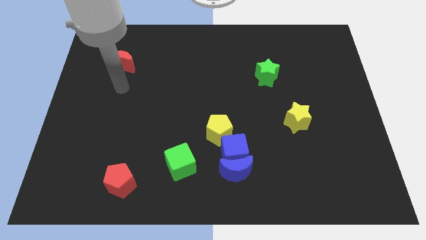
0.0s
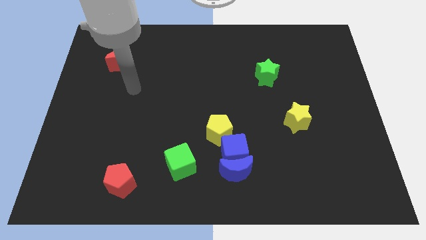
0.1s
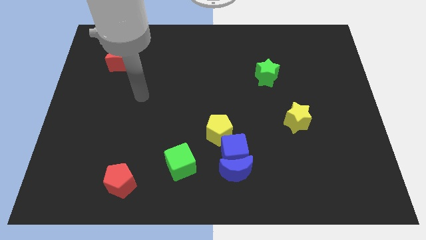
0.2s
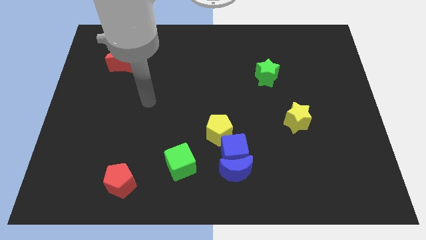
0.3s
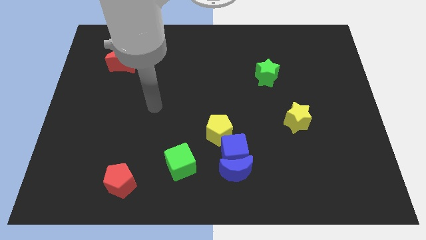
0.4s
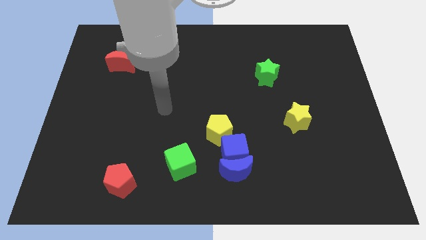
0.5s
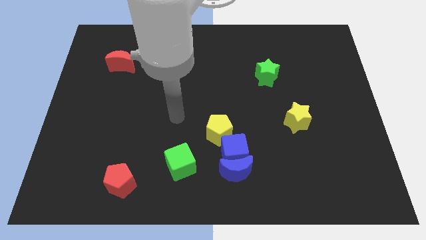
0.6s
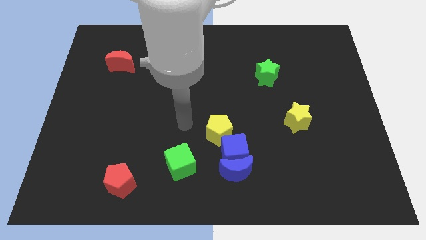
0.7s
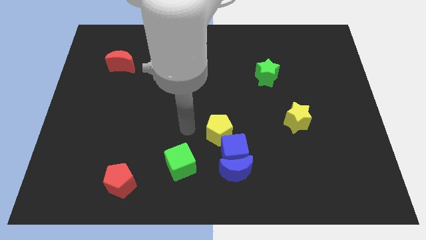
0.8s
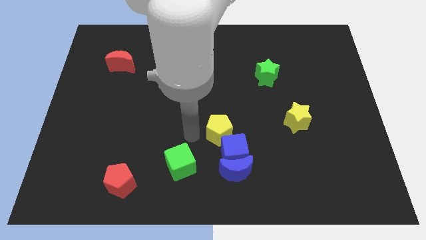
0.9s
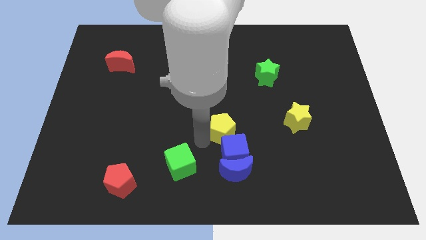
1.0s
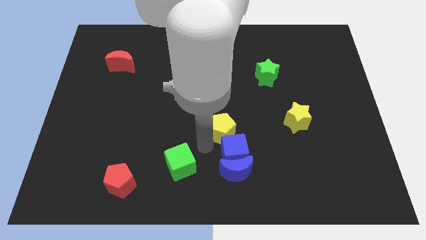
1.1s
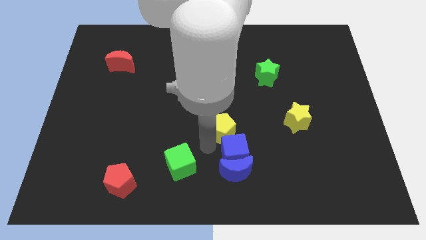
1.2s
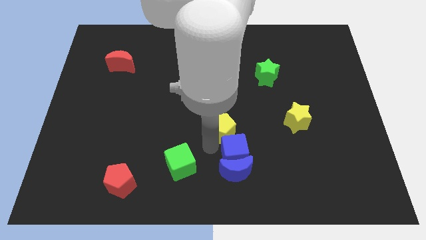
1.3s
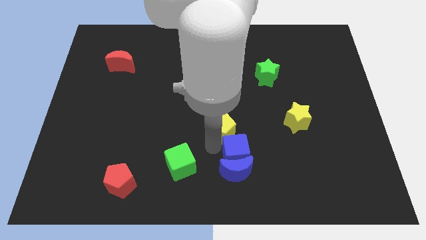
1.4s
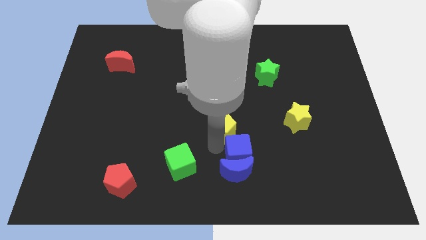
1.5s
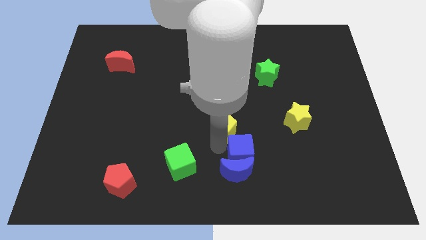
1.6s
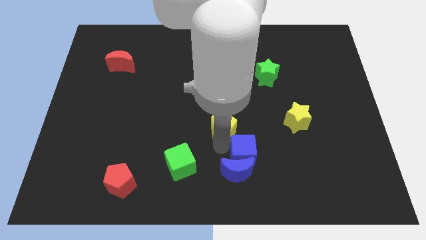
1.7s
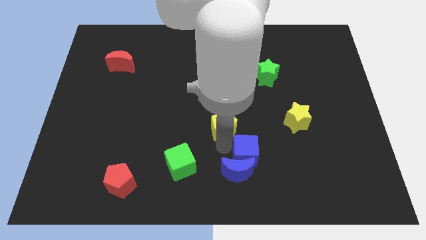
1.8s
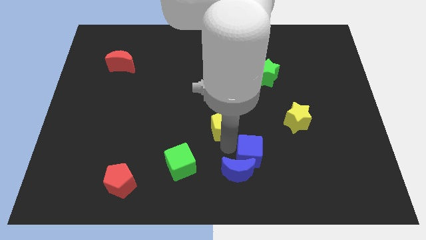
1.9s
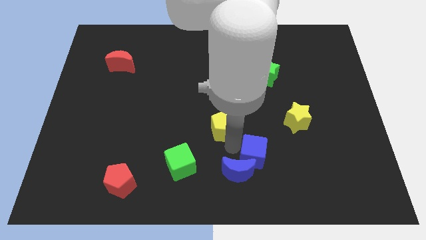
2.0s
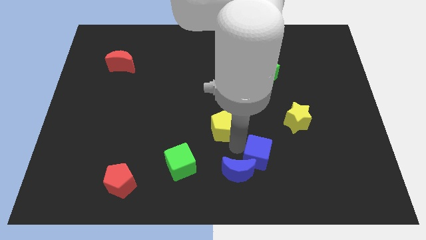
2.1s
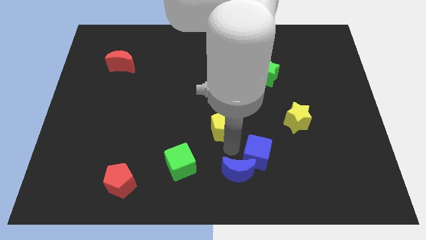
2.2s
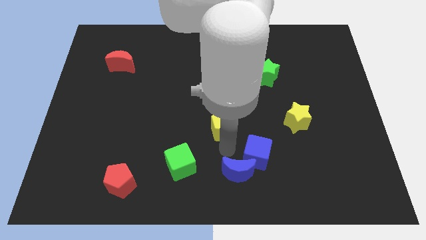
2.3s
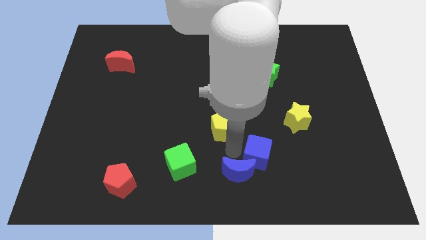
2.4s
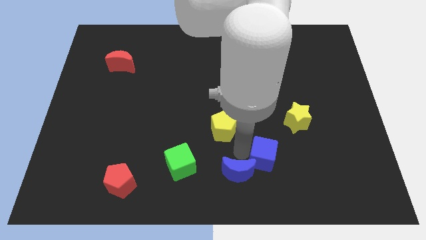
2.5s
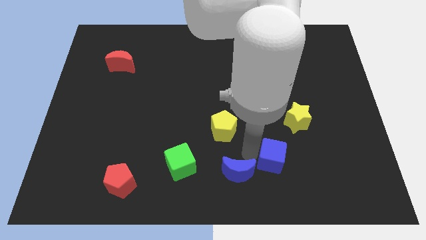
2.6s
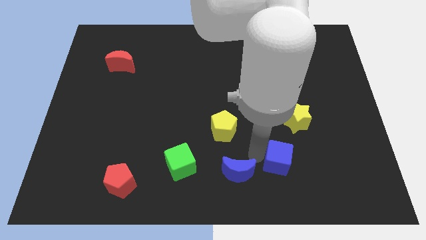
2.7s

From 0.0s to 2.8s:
separate the blue cube from the blue moon and yellow pentagon

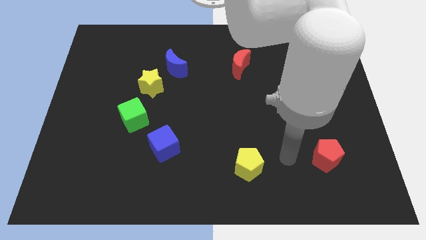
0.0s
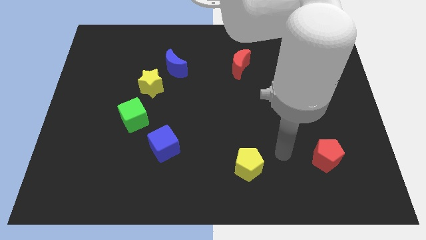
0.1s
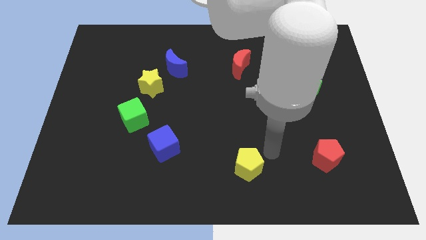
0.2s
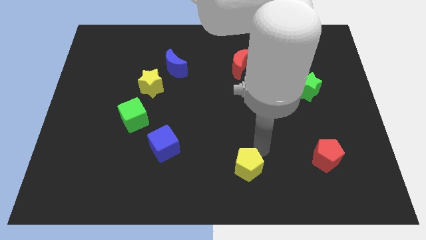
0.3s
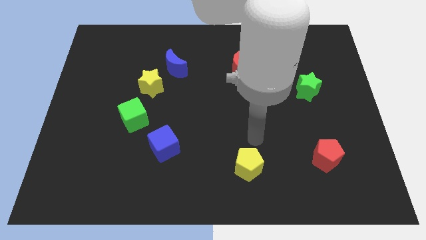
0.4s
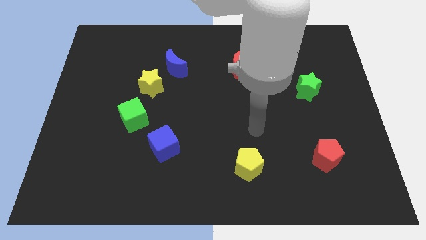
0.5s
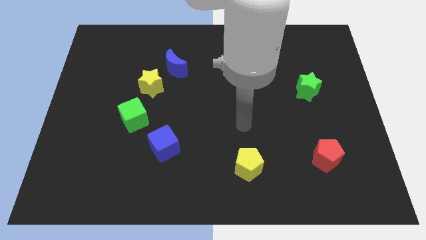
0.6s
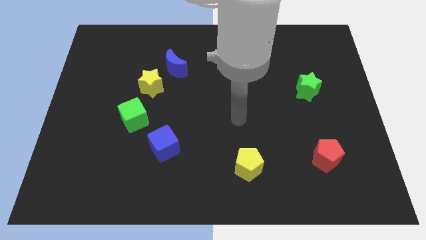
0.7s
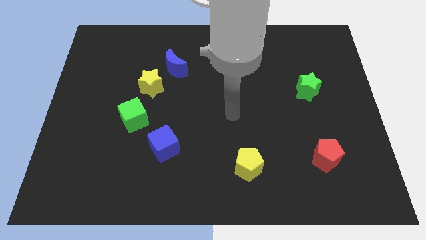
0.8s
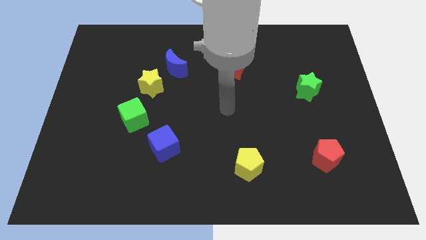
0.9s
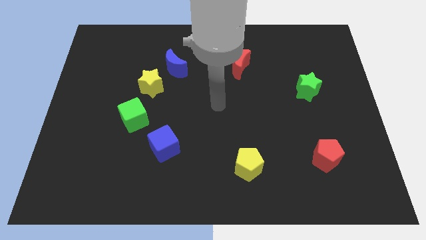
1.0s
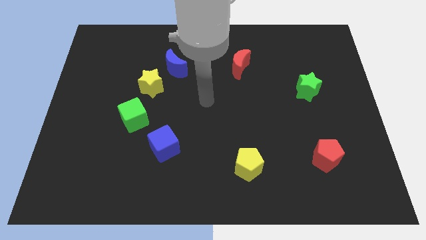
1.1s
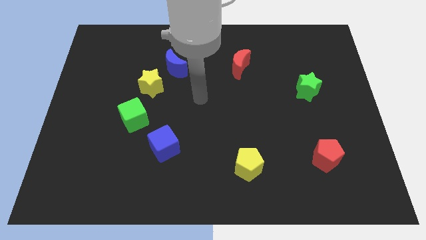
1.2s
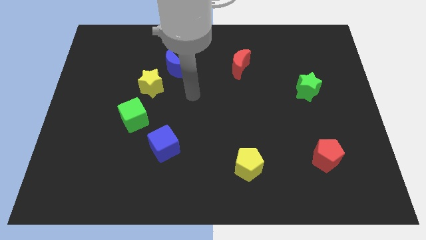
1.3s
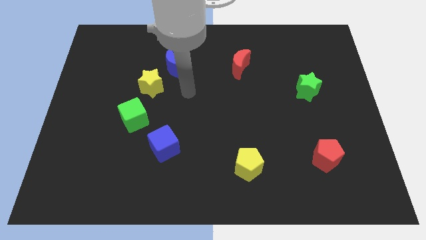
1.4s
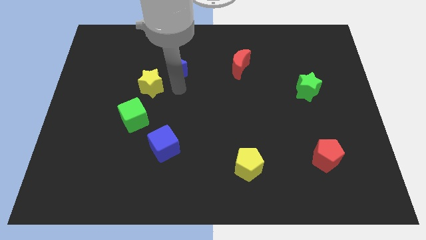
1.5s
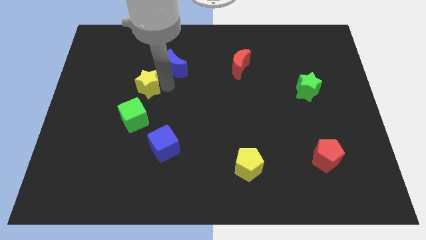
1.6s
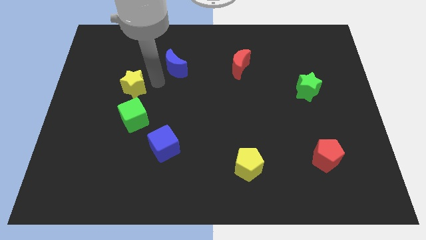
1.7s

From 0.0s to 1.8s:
pull the blue moon apart from the yellow star

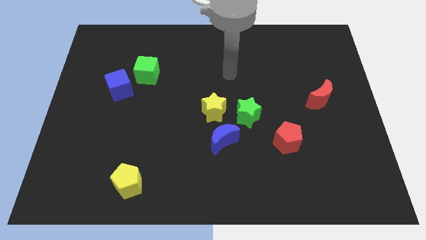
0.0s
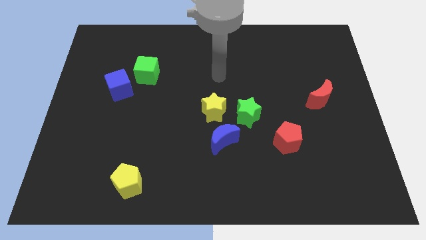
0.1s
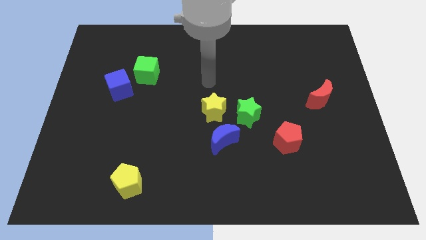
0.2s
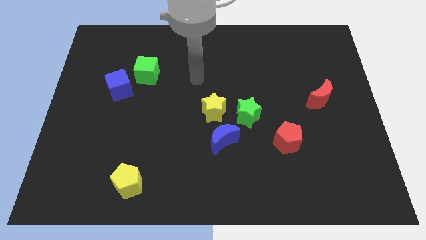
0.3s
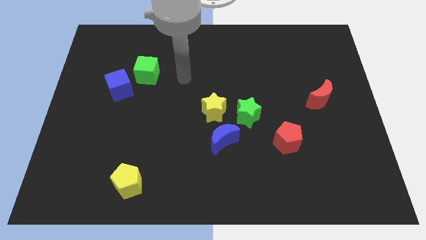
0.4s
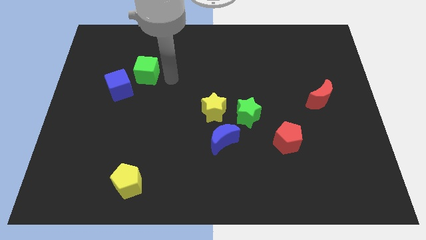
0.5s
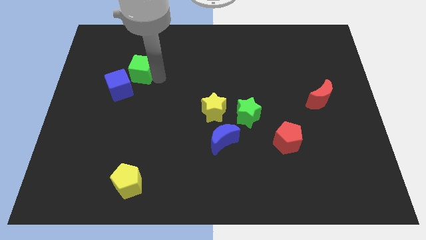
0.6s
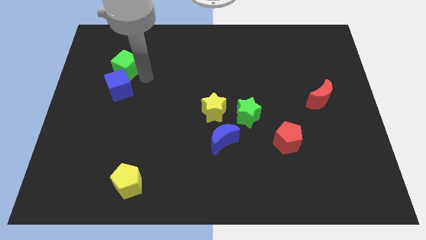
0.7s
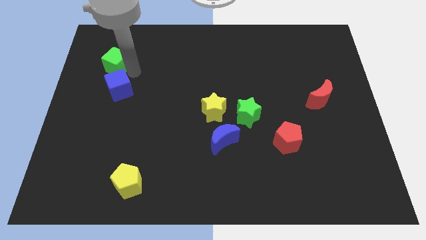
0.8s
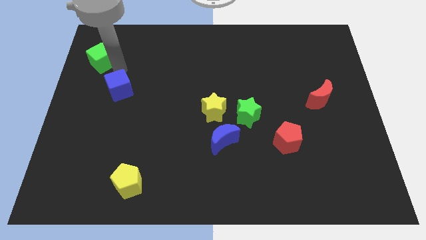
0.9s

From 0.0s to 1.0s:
separate the blue cube from the green cube
